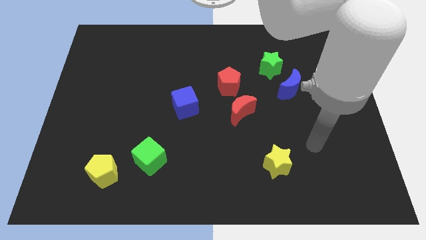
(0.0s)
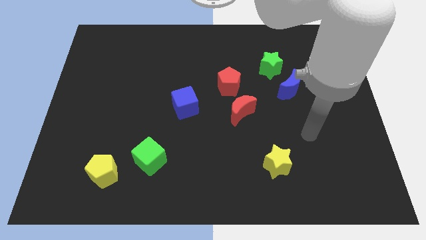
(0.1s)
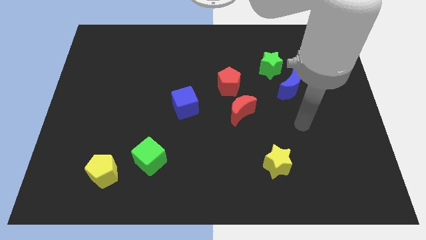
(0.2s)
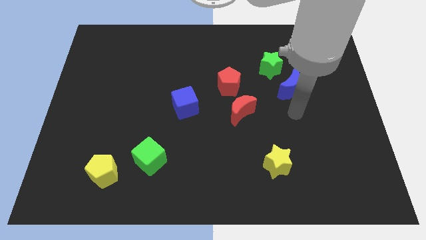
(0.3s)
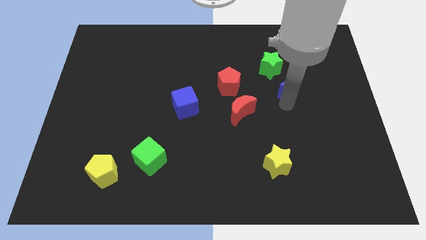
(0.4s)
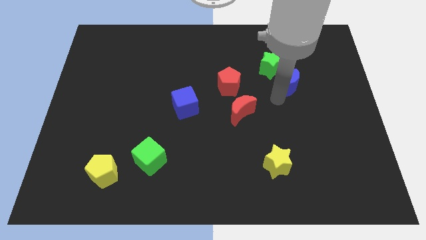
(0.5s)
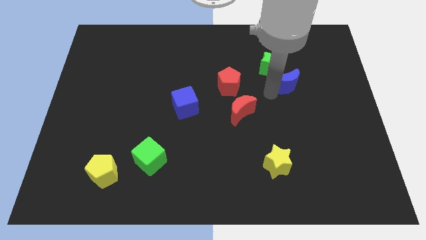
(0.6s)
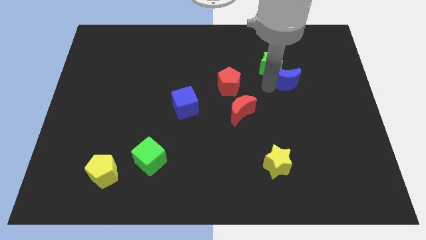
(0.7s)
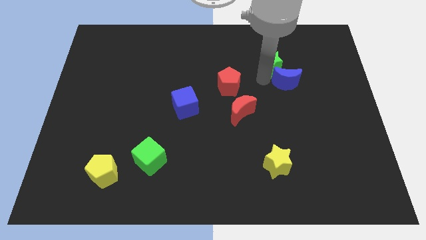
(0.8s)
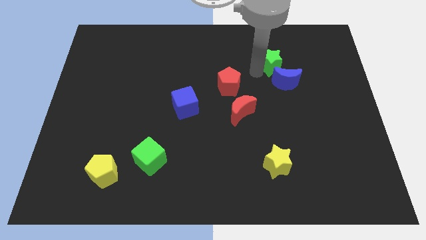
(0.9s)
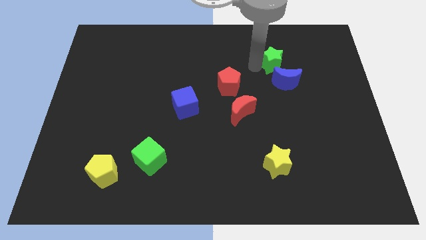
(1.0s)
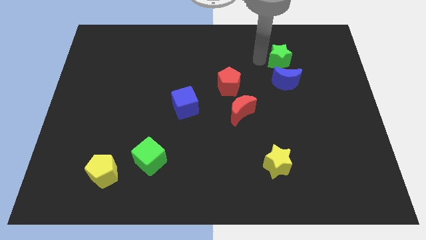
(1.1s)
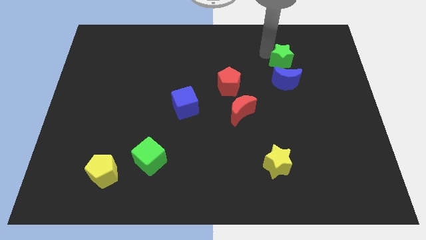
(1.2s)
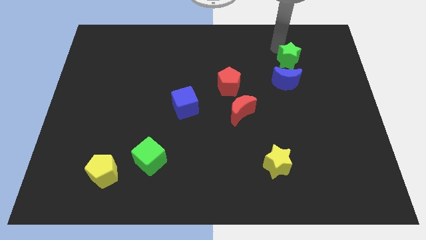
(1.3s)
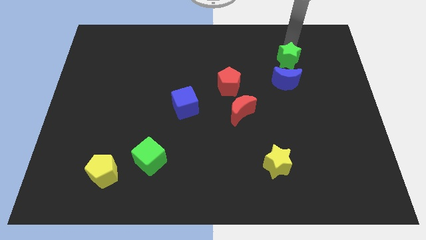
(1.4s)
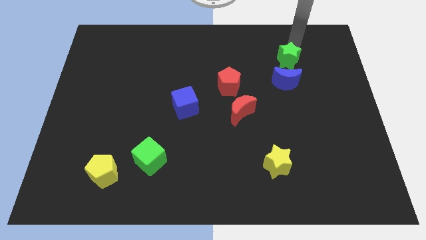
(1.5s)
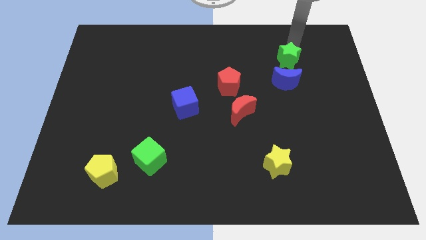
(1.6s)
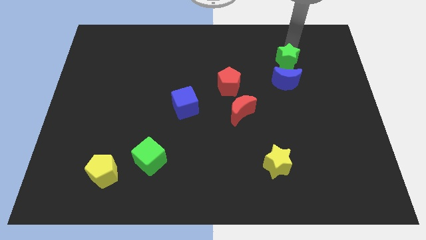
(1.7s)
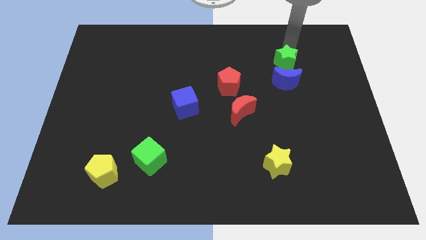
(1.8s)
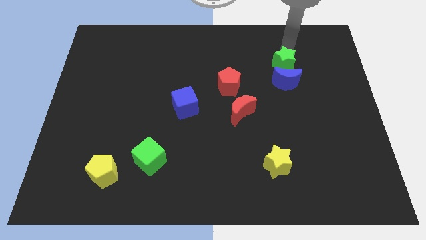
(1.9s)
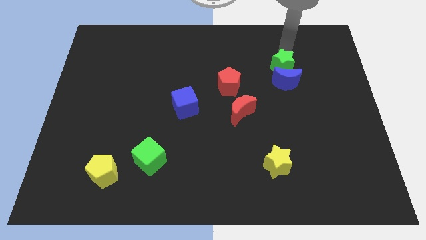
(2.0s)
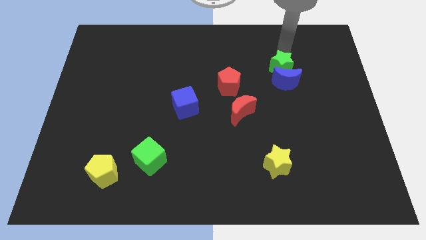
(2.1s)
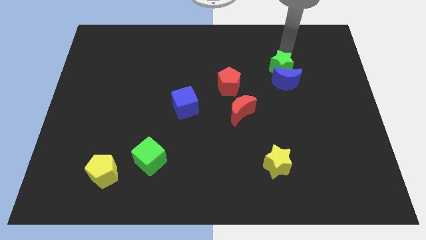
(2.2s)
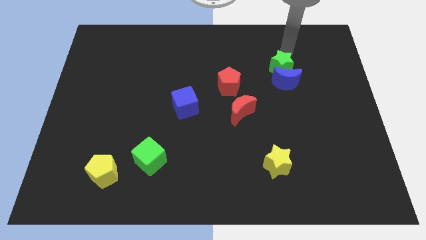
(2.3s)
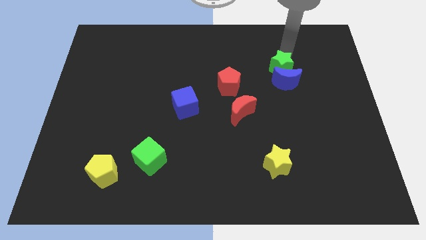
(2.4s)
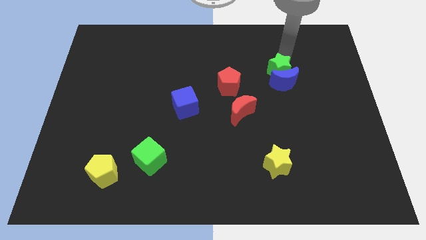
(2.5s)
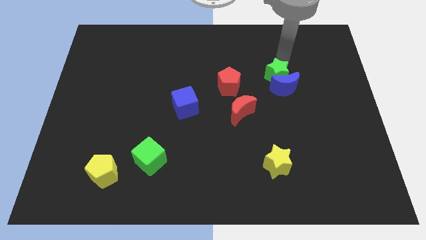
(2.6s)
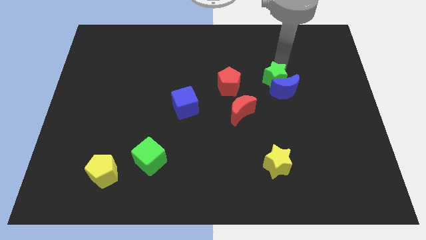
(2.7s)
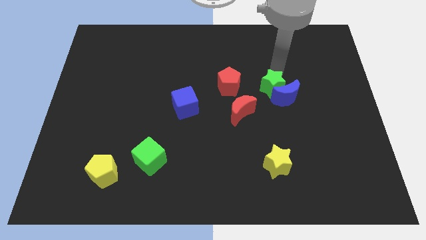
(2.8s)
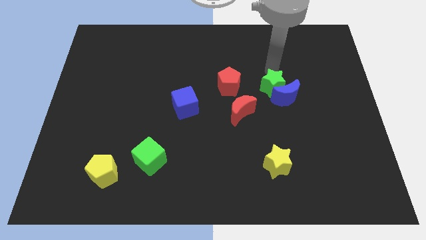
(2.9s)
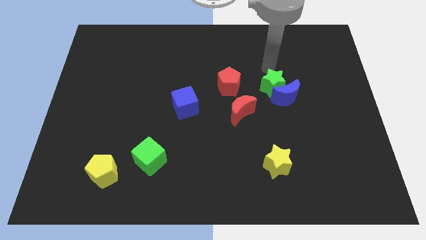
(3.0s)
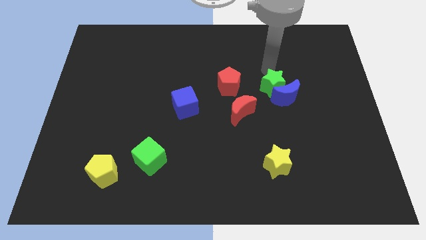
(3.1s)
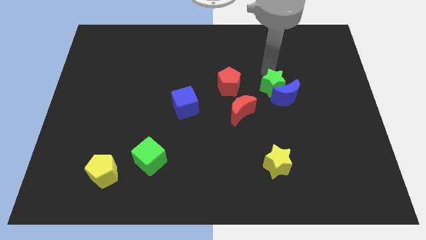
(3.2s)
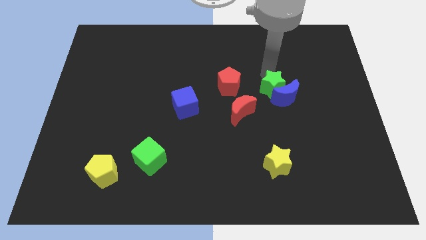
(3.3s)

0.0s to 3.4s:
slightly push the green star downwards

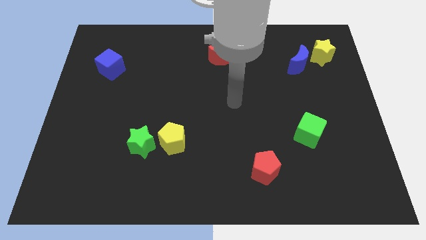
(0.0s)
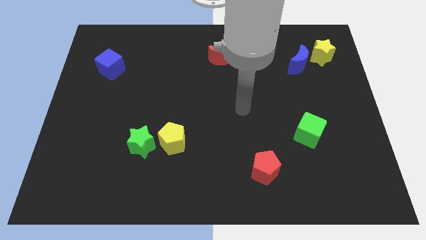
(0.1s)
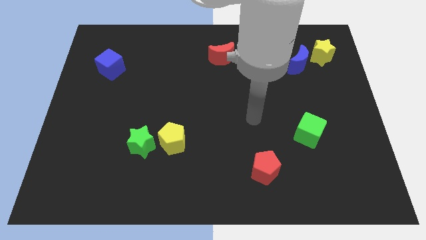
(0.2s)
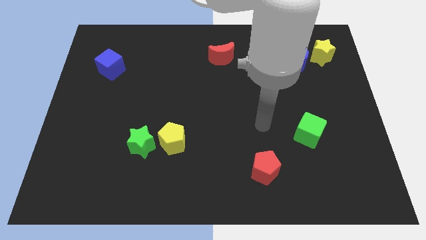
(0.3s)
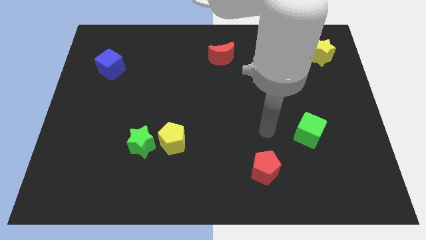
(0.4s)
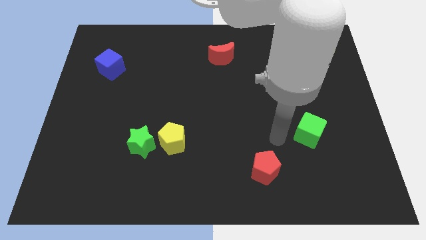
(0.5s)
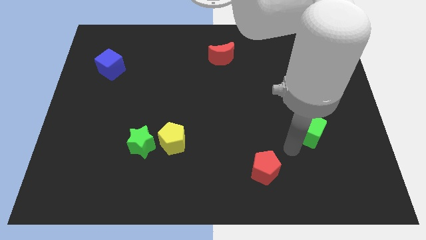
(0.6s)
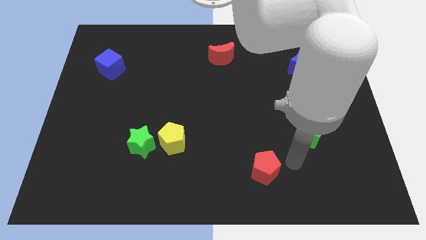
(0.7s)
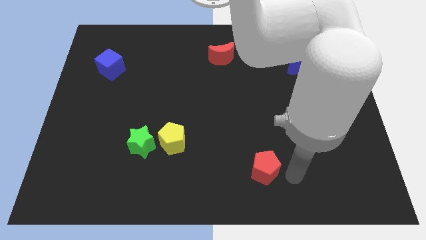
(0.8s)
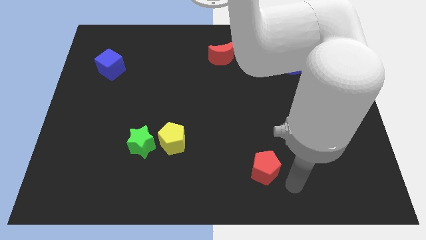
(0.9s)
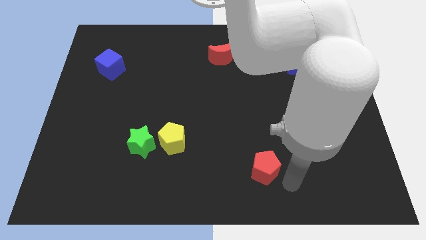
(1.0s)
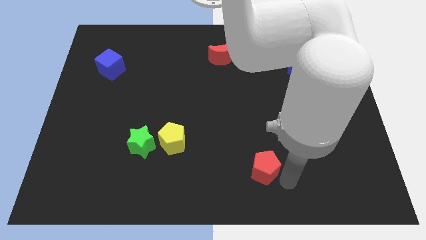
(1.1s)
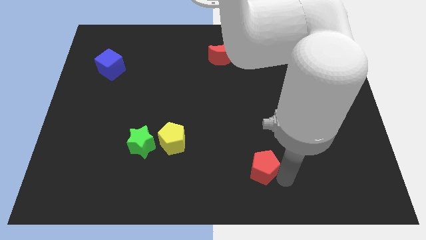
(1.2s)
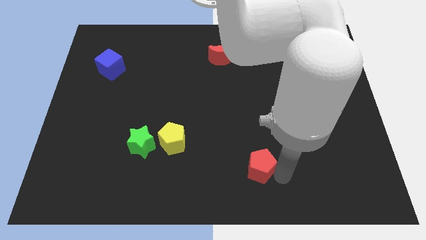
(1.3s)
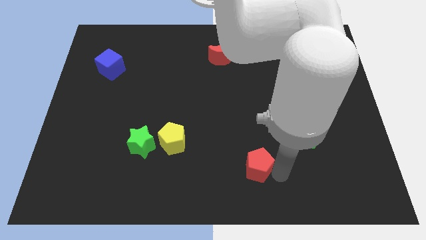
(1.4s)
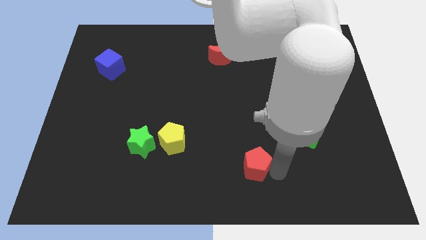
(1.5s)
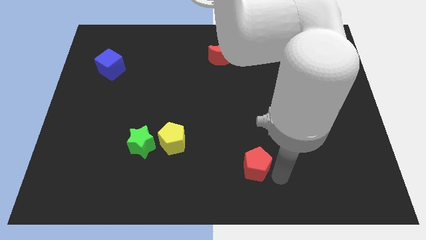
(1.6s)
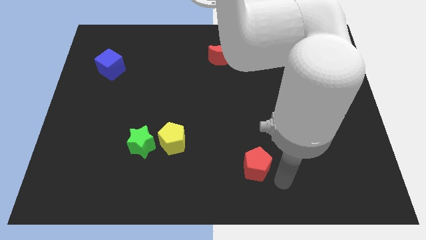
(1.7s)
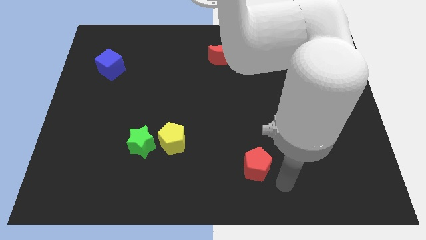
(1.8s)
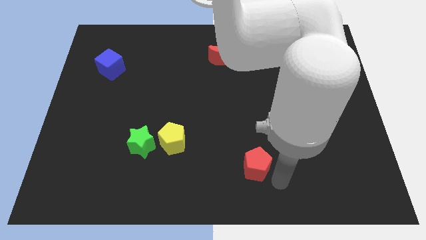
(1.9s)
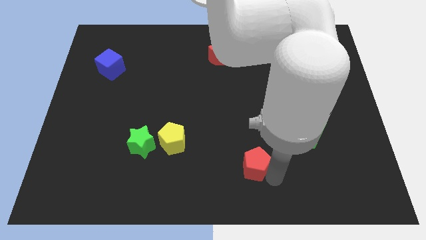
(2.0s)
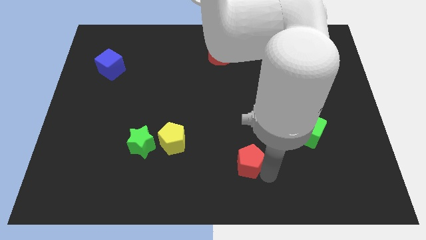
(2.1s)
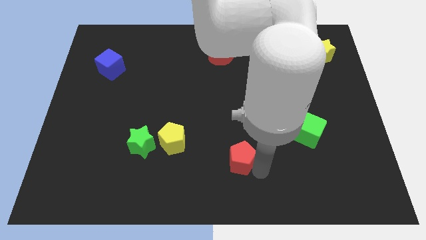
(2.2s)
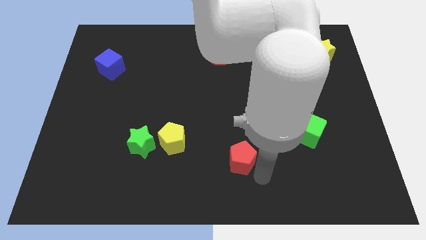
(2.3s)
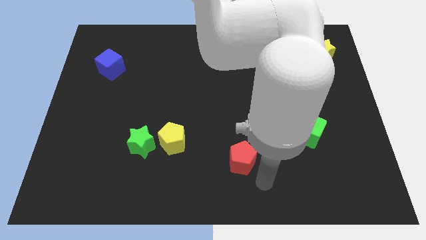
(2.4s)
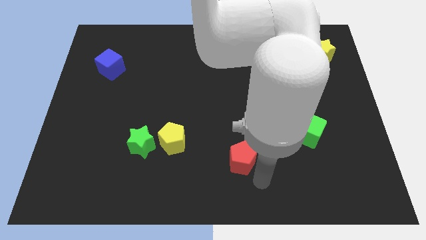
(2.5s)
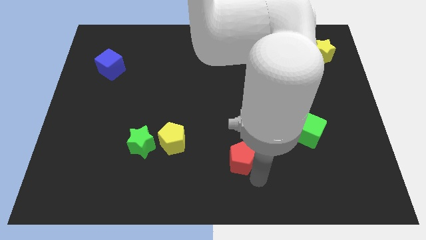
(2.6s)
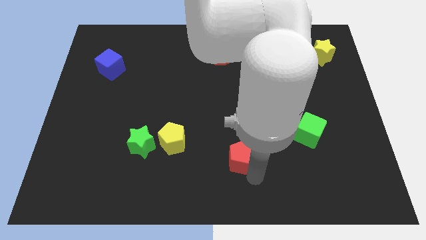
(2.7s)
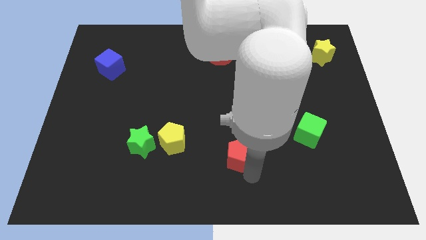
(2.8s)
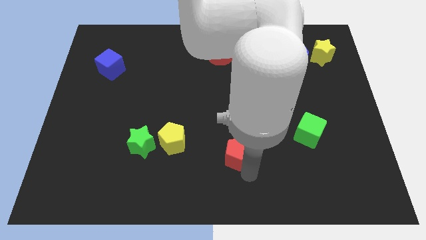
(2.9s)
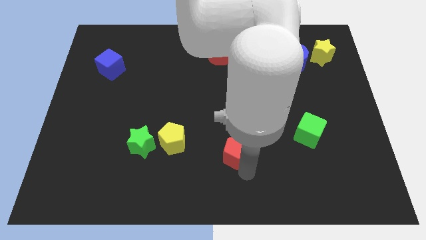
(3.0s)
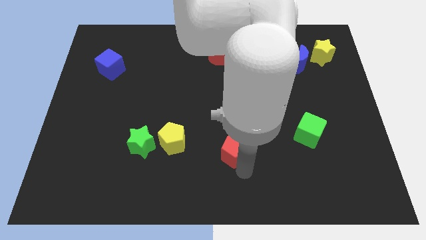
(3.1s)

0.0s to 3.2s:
move the red pentagon up and left a little bit

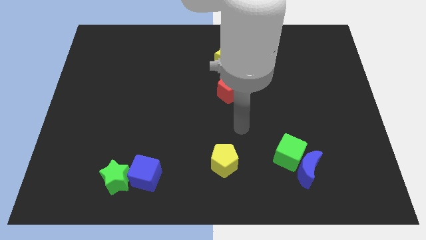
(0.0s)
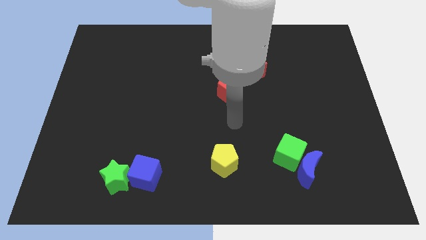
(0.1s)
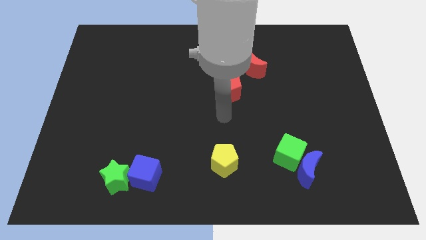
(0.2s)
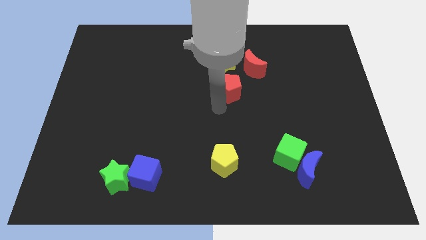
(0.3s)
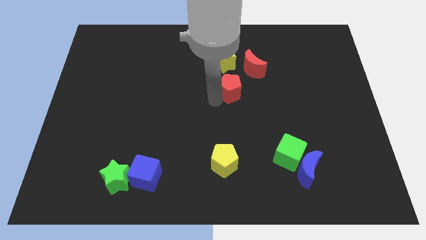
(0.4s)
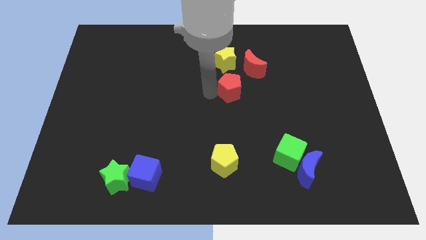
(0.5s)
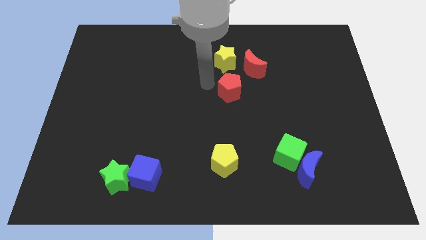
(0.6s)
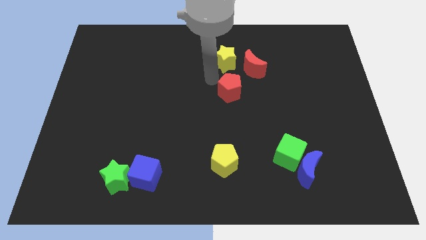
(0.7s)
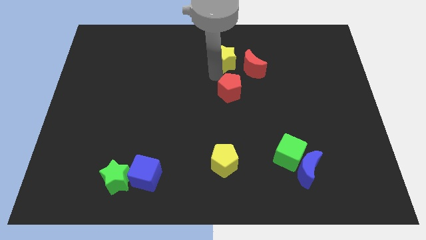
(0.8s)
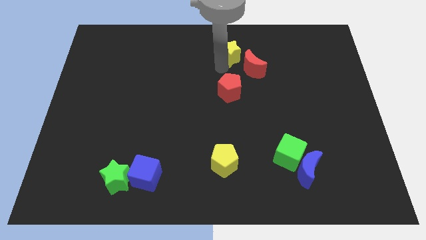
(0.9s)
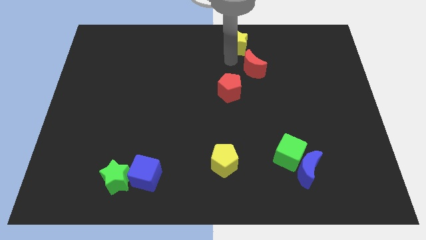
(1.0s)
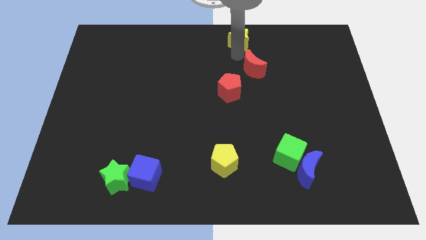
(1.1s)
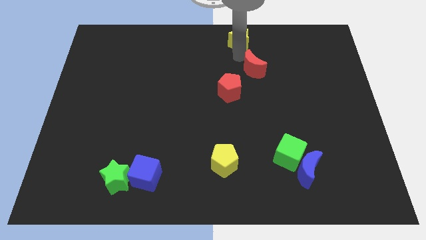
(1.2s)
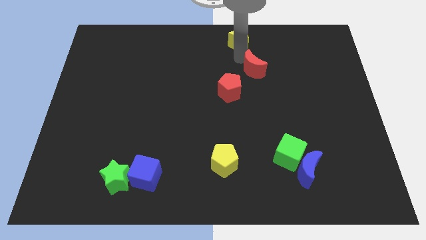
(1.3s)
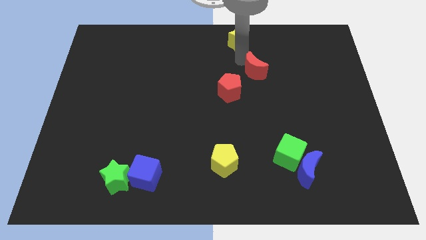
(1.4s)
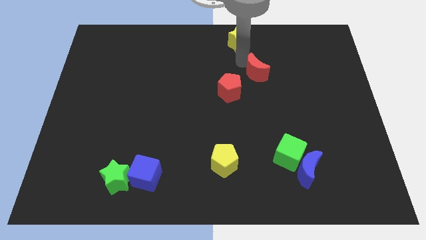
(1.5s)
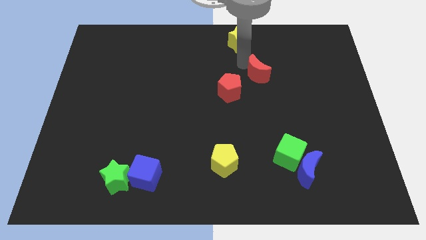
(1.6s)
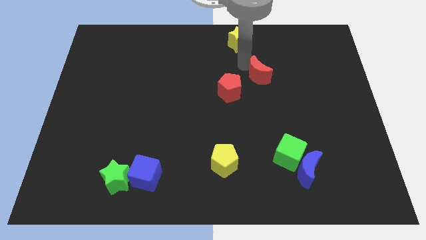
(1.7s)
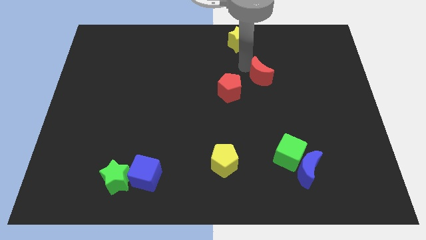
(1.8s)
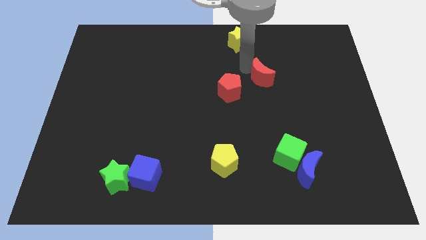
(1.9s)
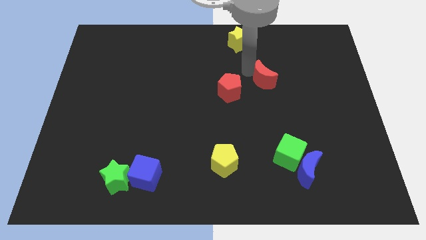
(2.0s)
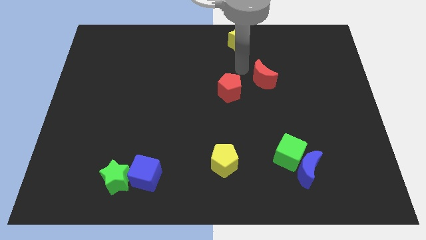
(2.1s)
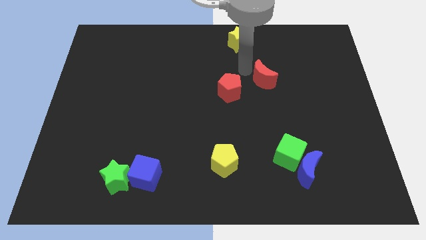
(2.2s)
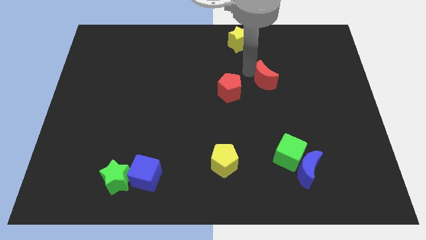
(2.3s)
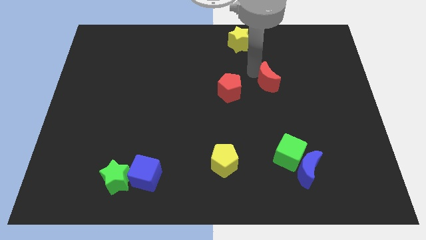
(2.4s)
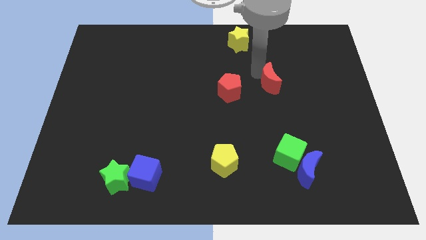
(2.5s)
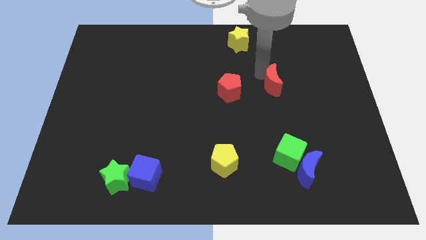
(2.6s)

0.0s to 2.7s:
push the red moon down and to the right slightly
